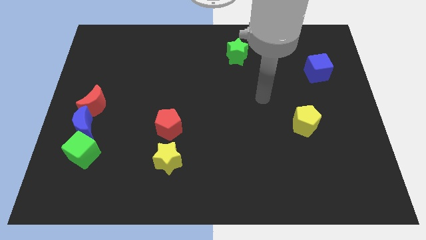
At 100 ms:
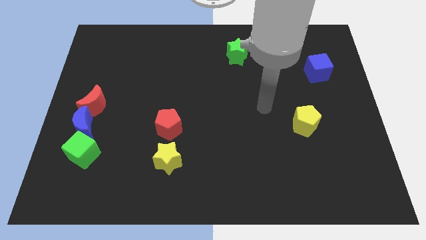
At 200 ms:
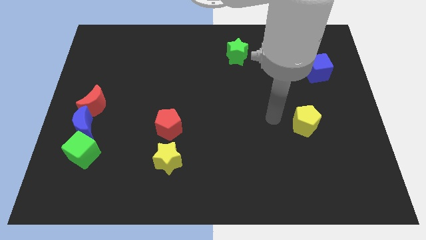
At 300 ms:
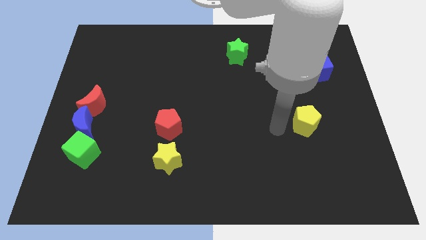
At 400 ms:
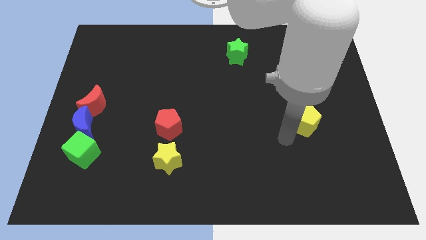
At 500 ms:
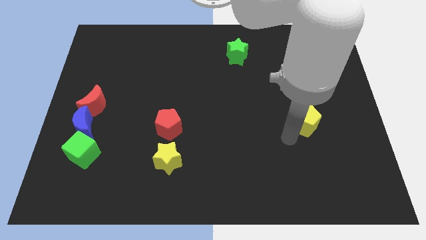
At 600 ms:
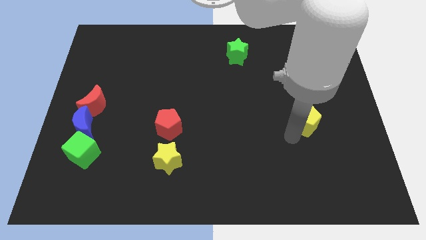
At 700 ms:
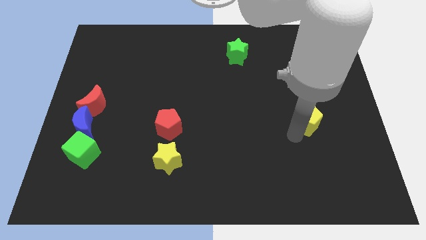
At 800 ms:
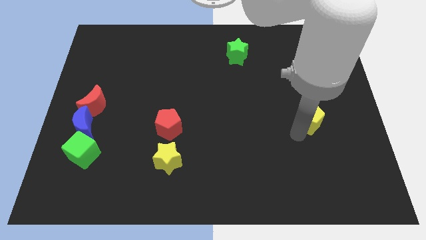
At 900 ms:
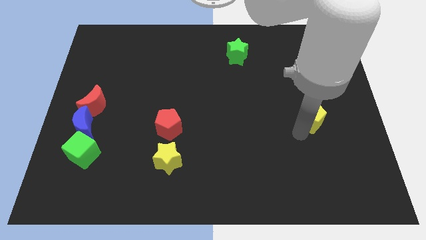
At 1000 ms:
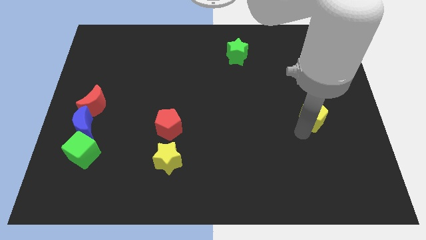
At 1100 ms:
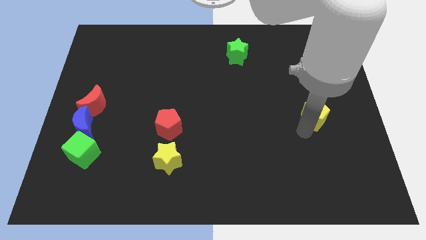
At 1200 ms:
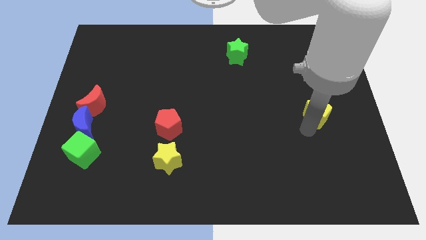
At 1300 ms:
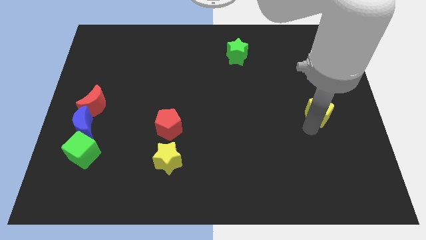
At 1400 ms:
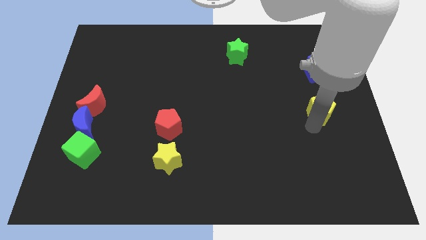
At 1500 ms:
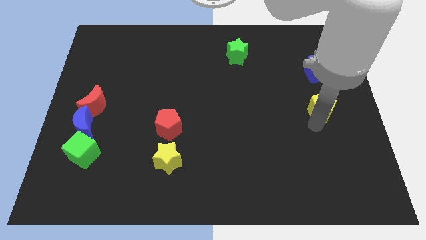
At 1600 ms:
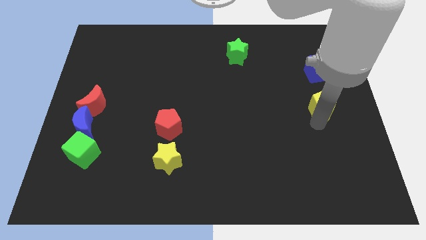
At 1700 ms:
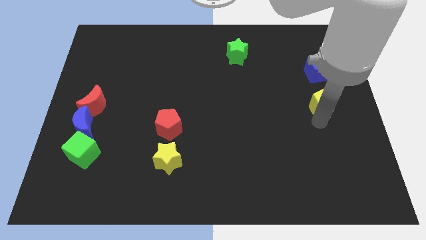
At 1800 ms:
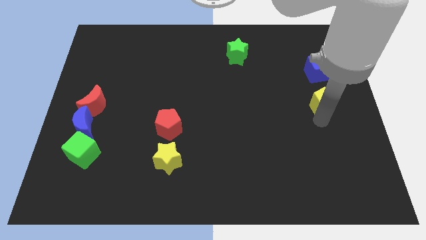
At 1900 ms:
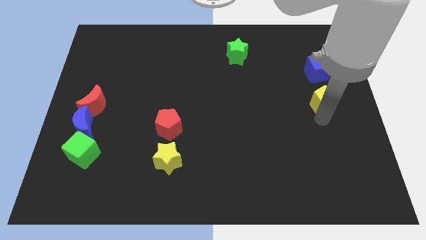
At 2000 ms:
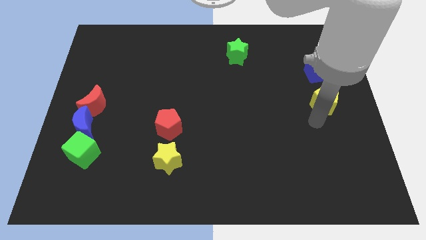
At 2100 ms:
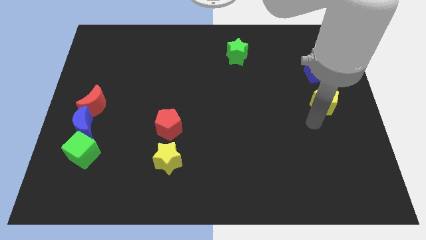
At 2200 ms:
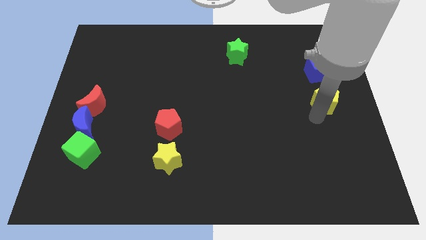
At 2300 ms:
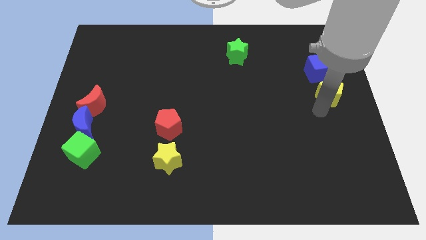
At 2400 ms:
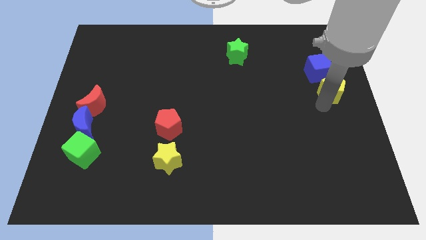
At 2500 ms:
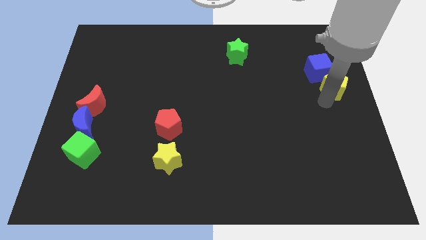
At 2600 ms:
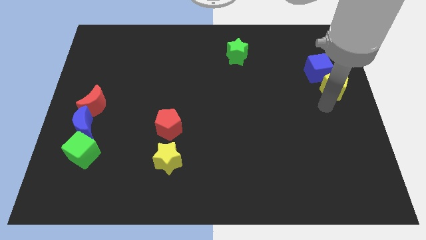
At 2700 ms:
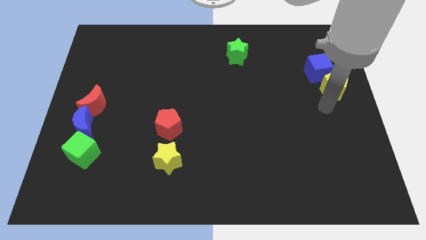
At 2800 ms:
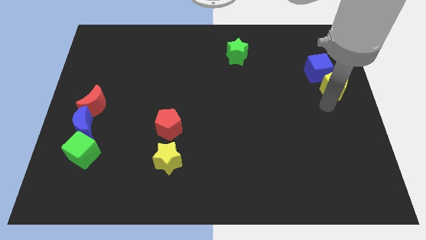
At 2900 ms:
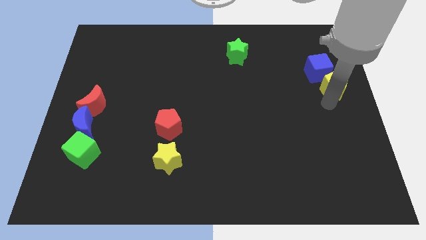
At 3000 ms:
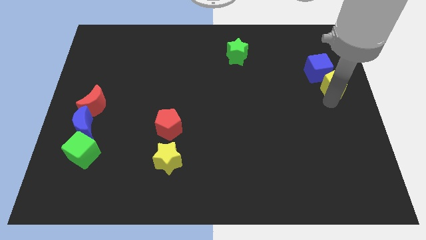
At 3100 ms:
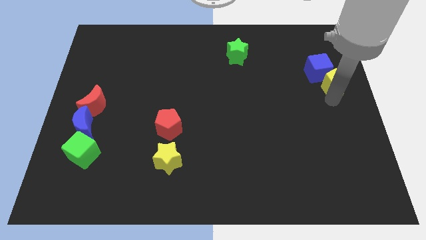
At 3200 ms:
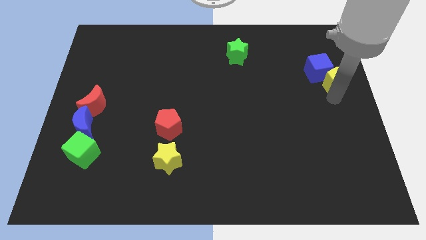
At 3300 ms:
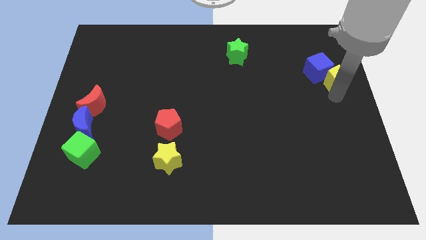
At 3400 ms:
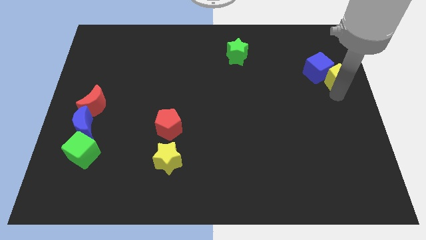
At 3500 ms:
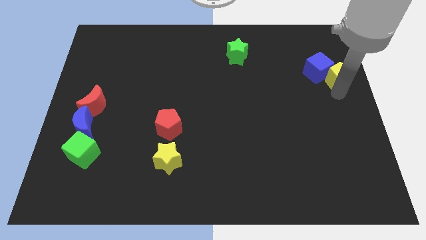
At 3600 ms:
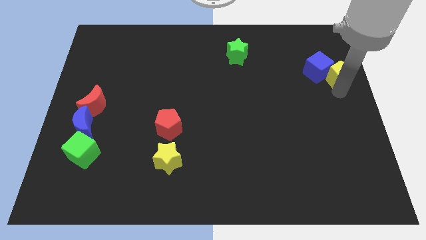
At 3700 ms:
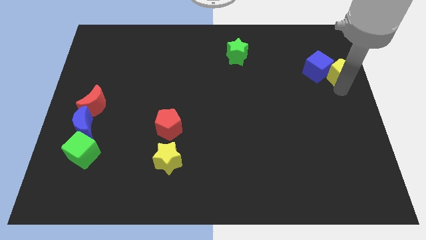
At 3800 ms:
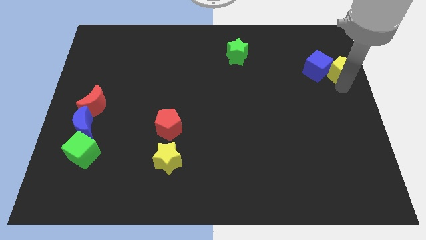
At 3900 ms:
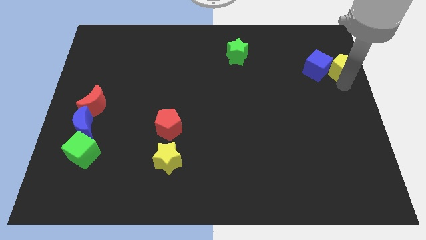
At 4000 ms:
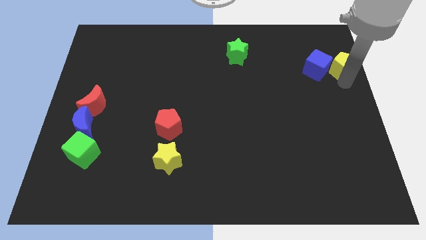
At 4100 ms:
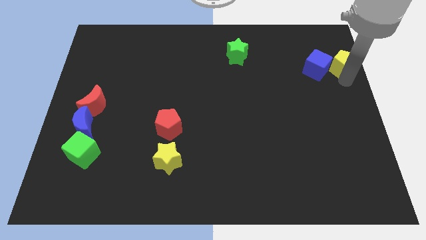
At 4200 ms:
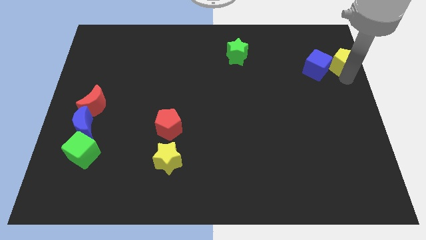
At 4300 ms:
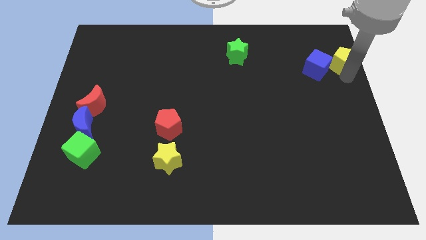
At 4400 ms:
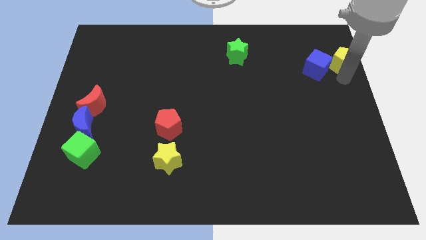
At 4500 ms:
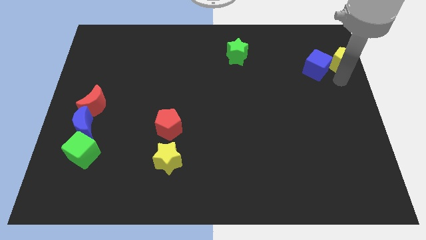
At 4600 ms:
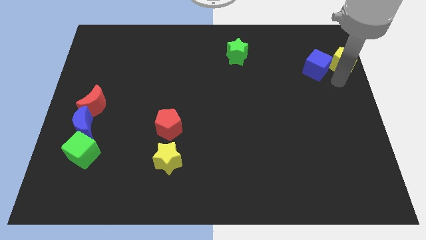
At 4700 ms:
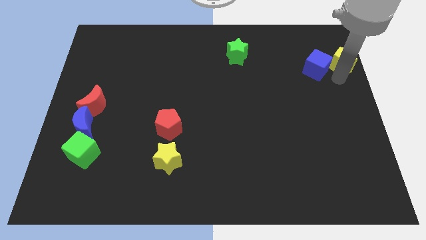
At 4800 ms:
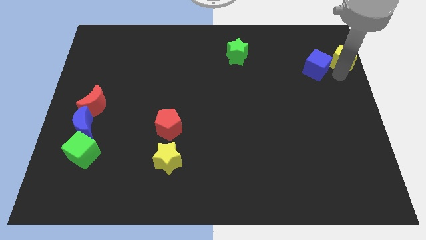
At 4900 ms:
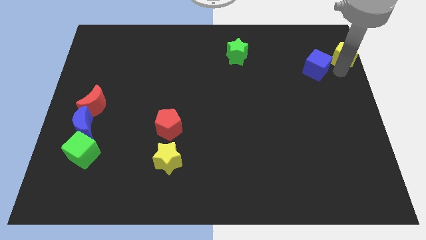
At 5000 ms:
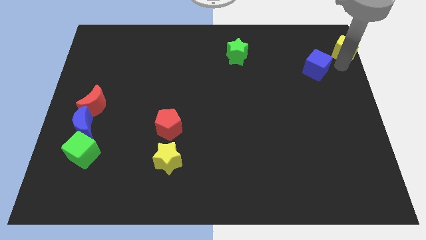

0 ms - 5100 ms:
push the yellow pentagon to the top right corner

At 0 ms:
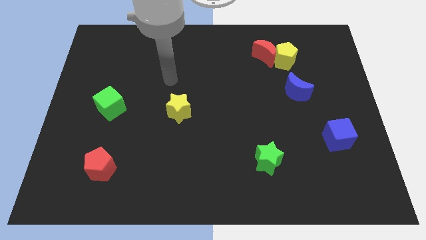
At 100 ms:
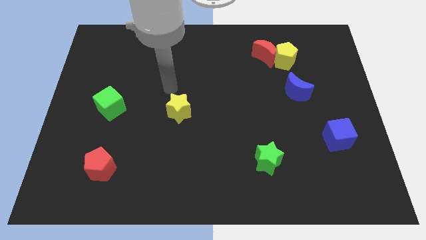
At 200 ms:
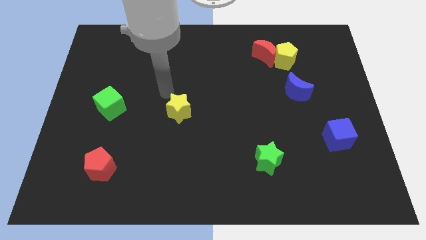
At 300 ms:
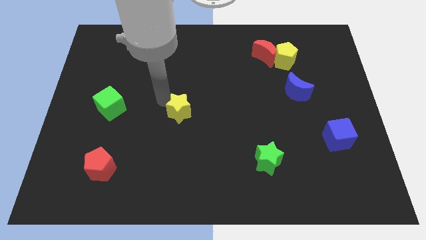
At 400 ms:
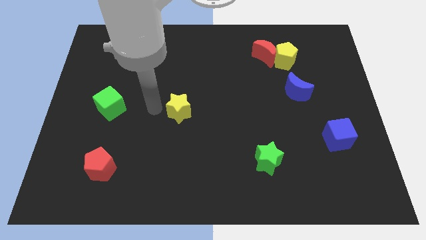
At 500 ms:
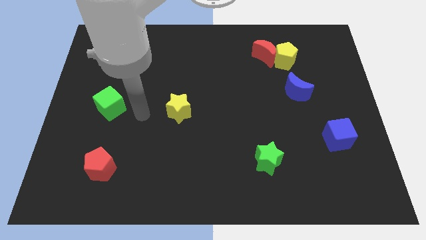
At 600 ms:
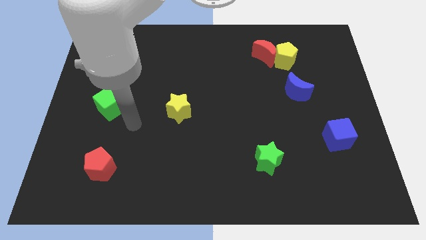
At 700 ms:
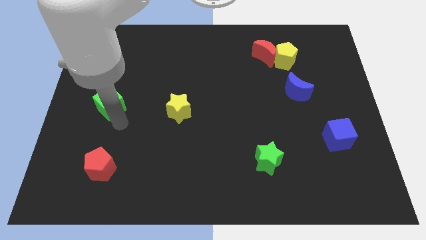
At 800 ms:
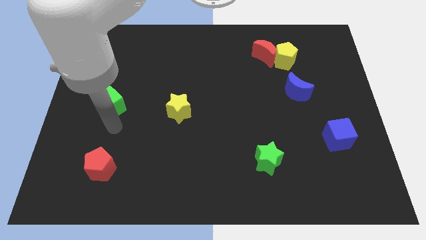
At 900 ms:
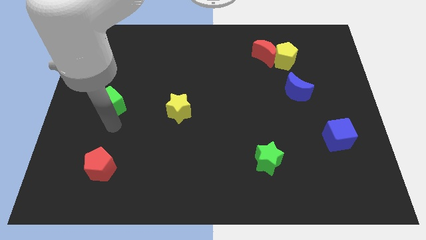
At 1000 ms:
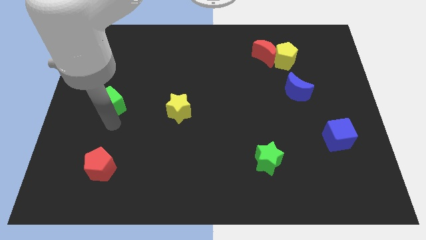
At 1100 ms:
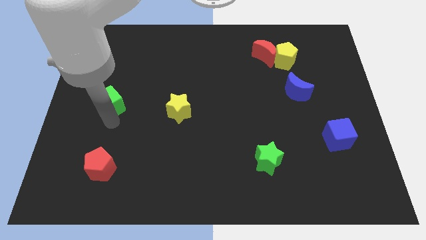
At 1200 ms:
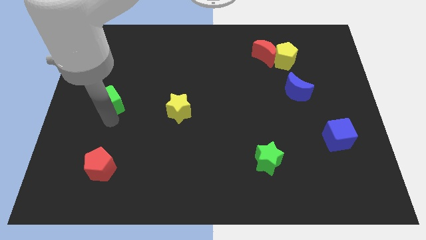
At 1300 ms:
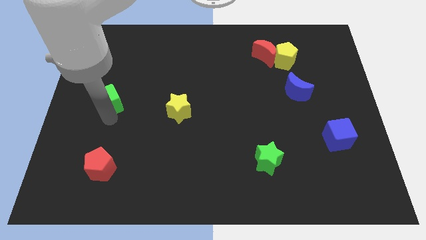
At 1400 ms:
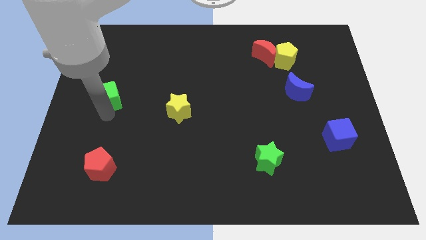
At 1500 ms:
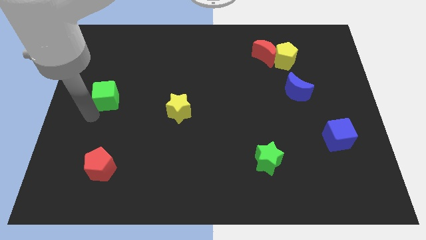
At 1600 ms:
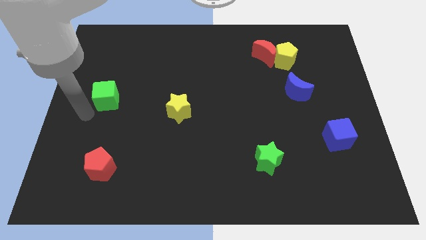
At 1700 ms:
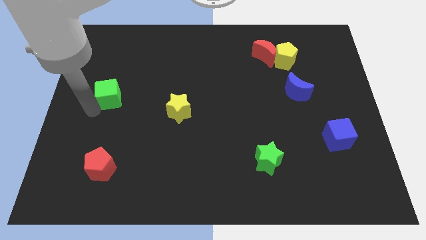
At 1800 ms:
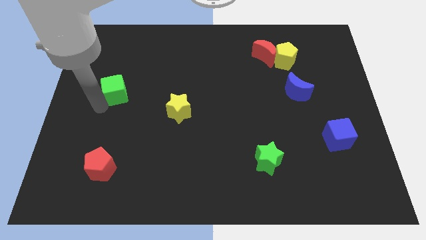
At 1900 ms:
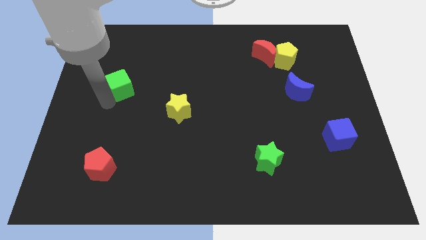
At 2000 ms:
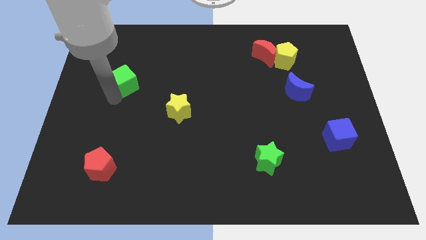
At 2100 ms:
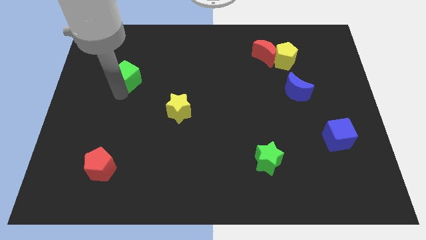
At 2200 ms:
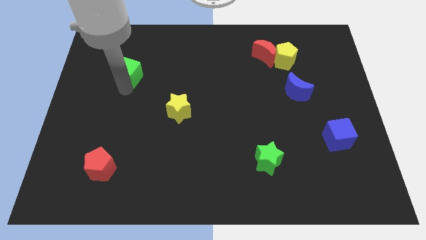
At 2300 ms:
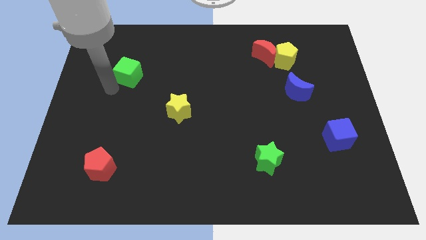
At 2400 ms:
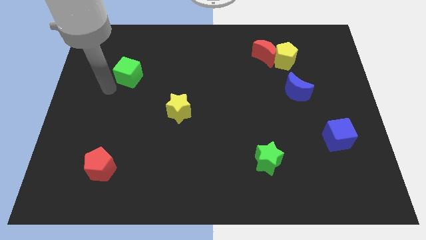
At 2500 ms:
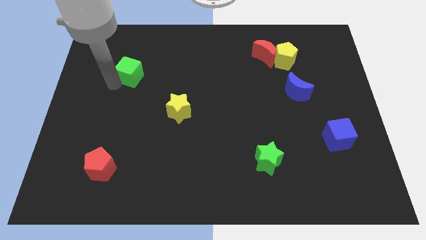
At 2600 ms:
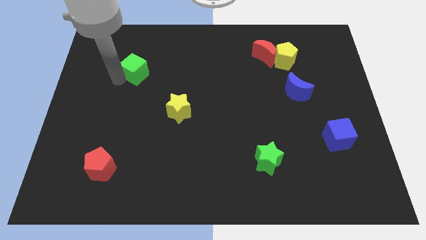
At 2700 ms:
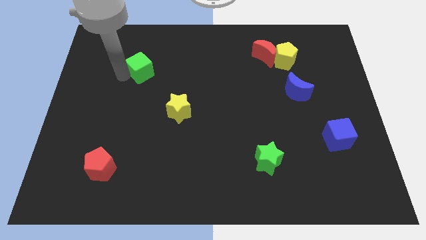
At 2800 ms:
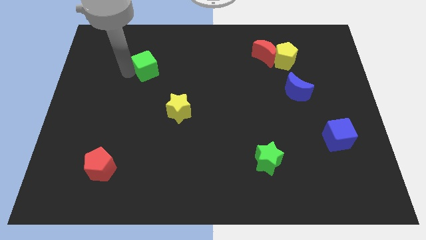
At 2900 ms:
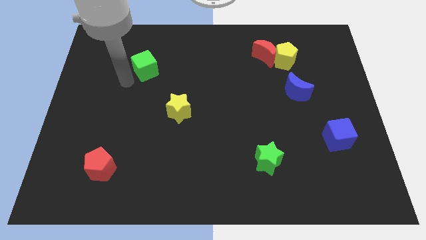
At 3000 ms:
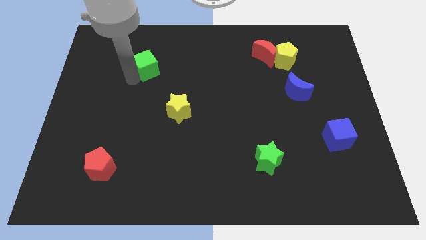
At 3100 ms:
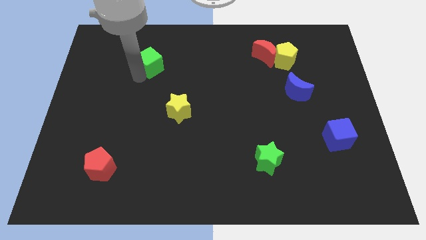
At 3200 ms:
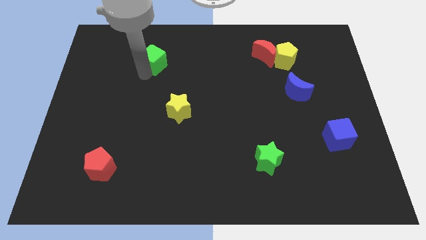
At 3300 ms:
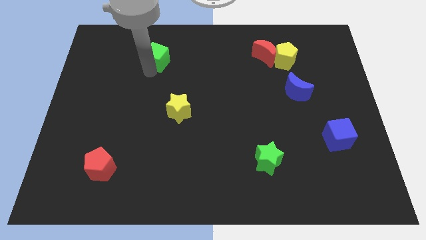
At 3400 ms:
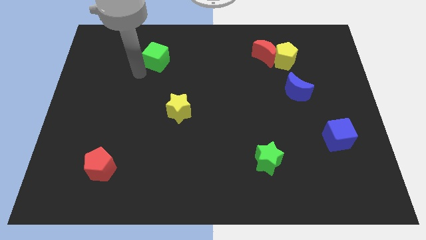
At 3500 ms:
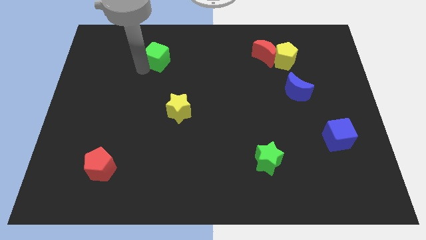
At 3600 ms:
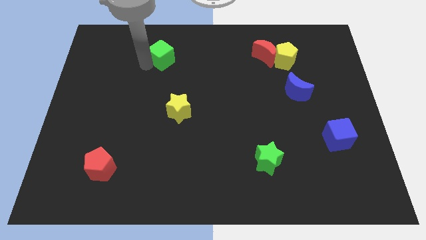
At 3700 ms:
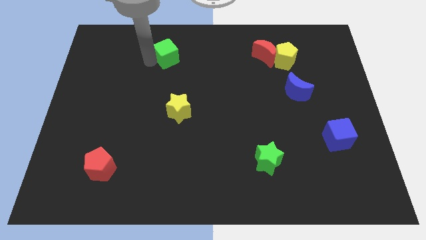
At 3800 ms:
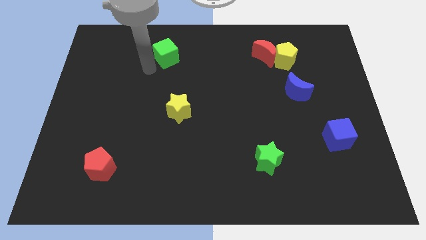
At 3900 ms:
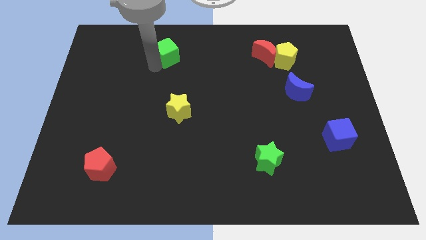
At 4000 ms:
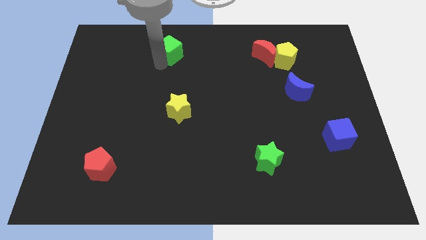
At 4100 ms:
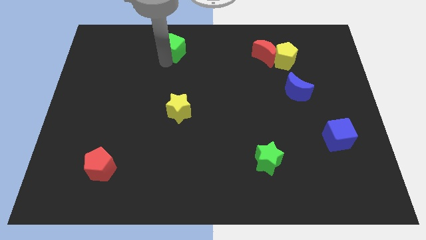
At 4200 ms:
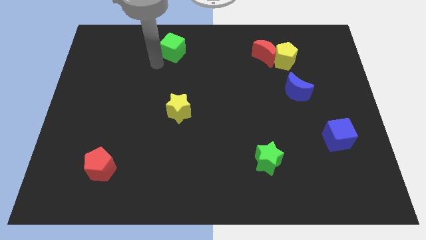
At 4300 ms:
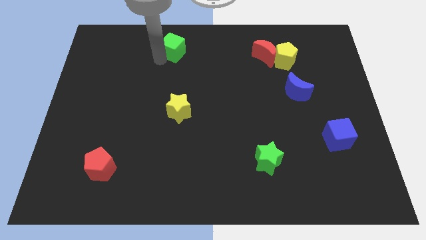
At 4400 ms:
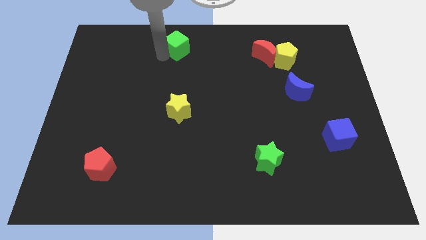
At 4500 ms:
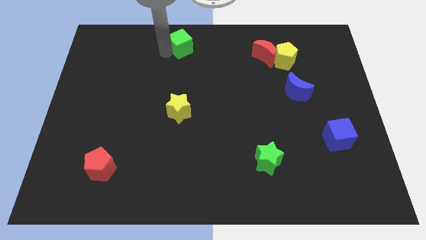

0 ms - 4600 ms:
push the green cube to the top
